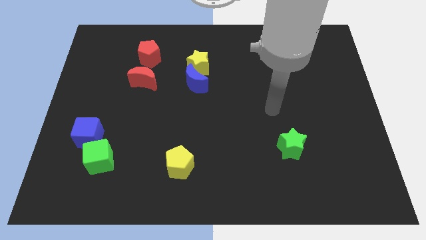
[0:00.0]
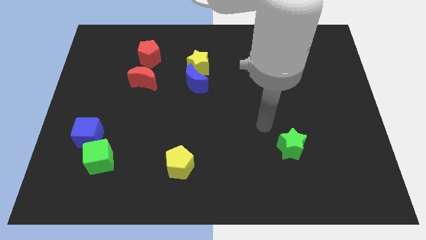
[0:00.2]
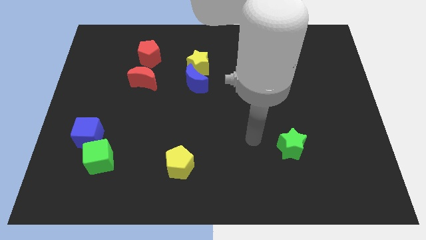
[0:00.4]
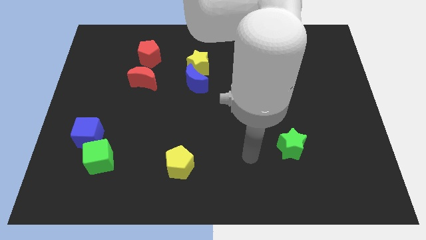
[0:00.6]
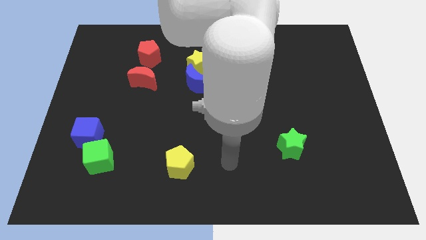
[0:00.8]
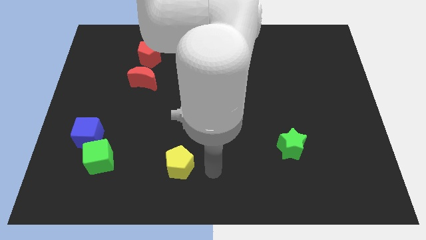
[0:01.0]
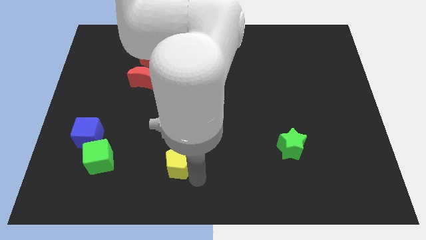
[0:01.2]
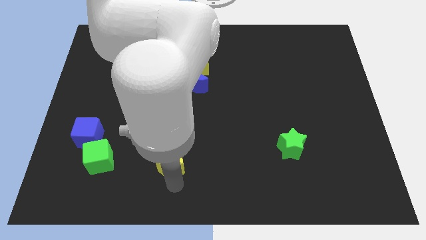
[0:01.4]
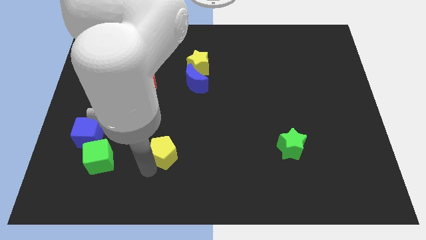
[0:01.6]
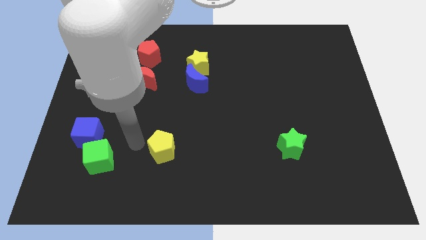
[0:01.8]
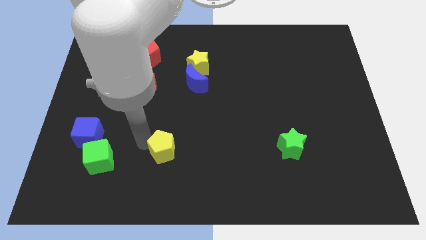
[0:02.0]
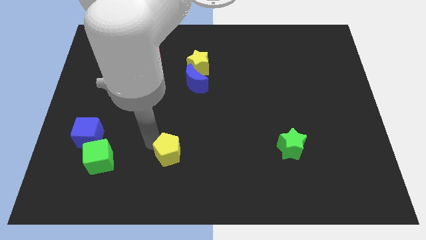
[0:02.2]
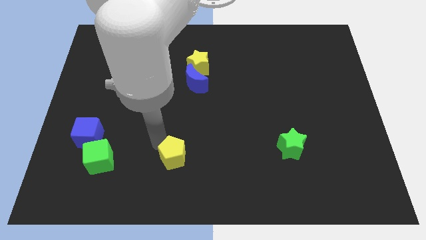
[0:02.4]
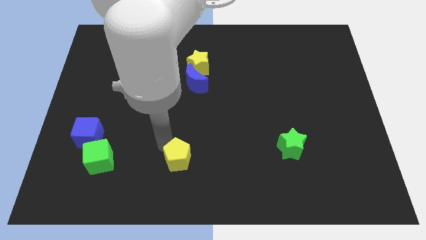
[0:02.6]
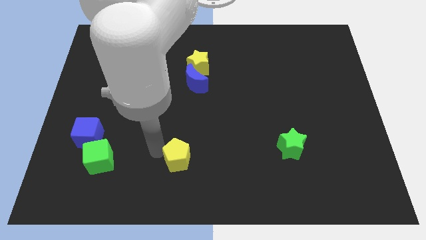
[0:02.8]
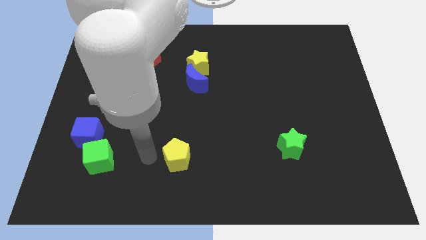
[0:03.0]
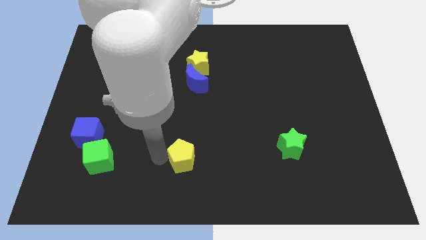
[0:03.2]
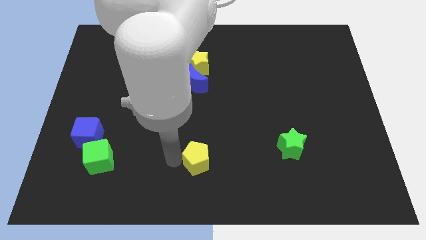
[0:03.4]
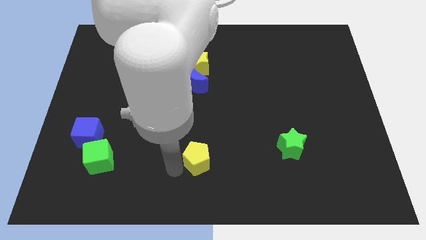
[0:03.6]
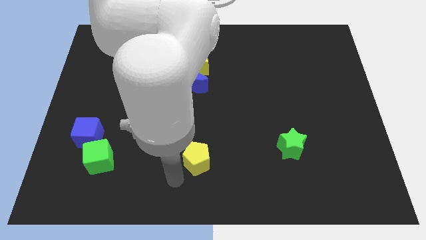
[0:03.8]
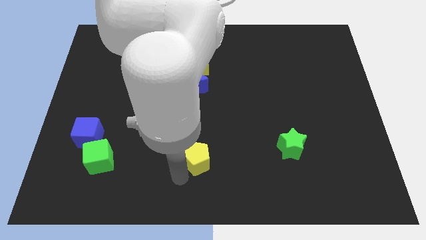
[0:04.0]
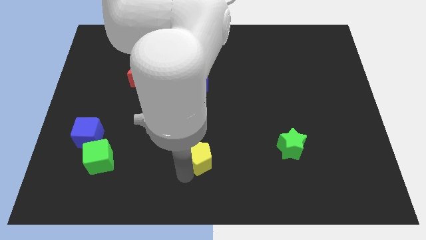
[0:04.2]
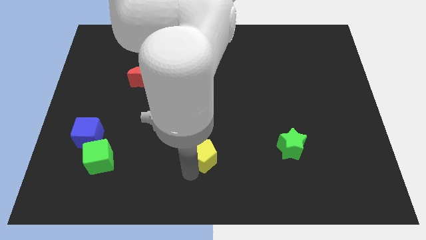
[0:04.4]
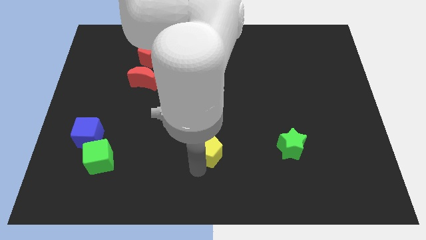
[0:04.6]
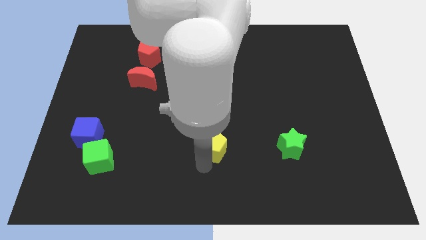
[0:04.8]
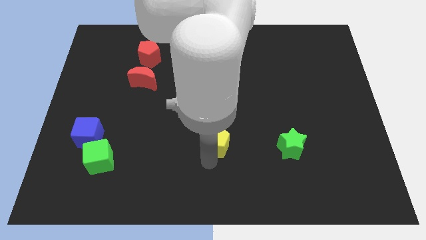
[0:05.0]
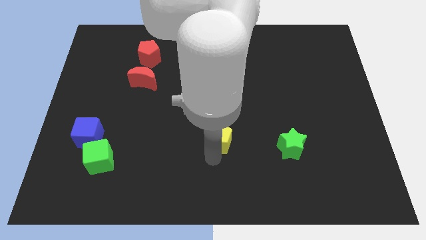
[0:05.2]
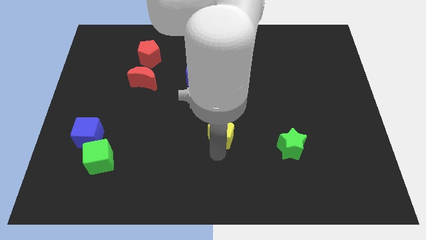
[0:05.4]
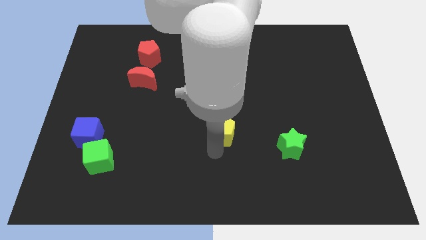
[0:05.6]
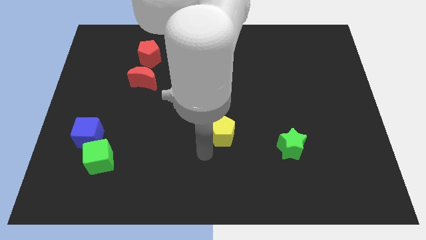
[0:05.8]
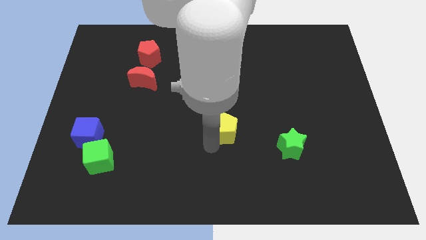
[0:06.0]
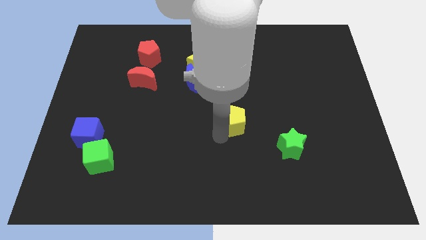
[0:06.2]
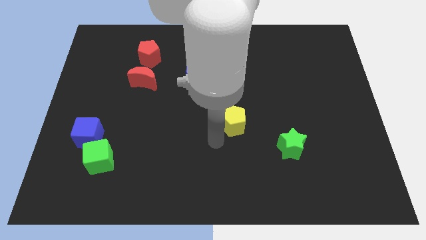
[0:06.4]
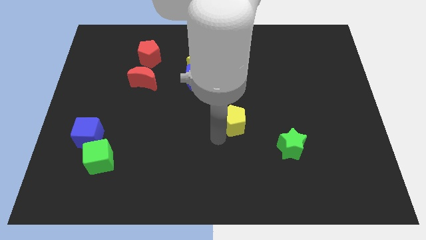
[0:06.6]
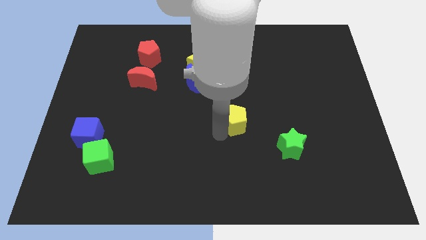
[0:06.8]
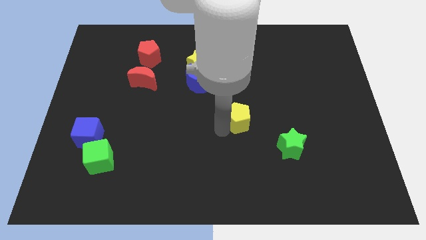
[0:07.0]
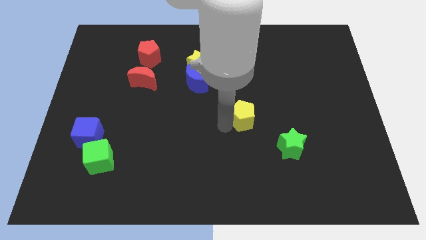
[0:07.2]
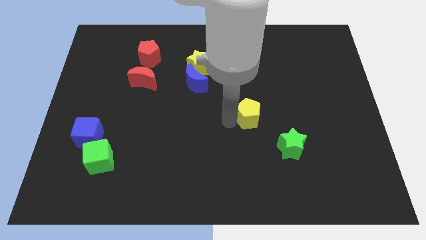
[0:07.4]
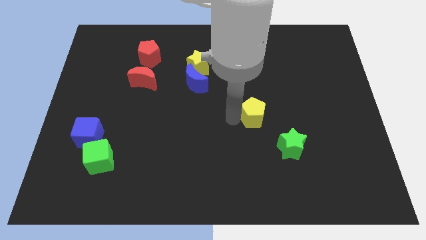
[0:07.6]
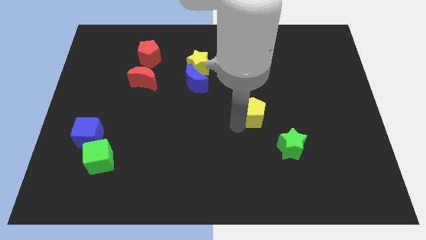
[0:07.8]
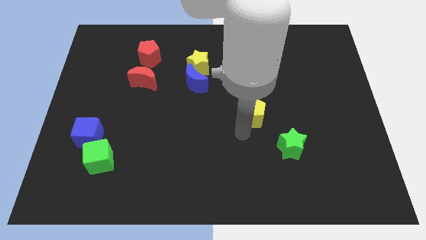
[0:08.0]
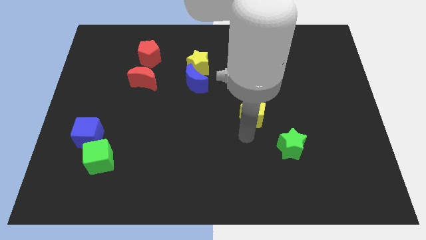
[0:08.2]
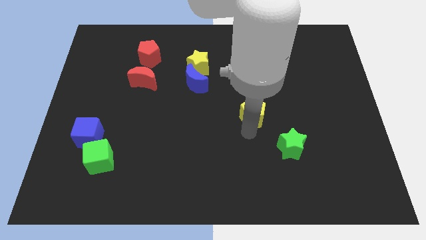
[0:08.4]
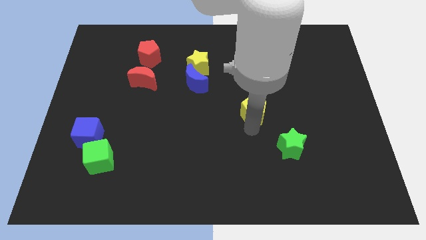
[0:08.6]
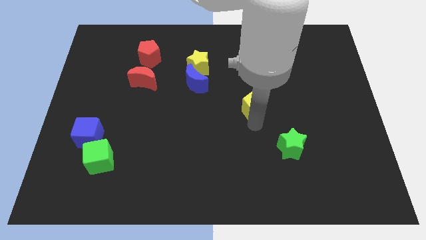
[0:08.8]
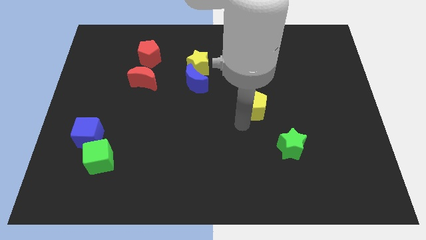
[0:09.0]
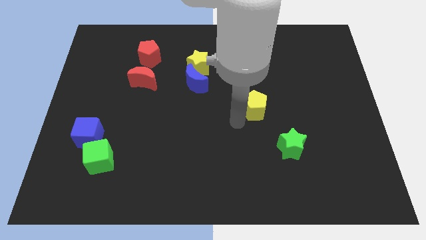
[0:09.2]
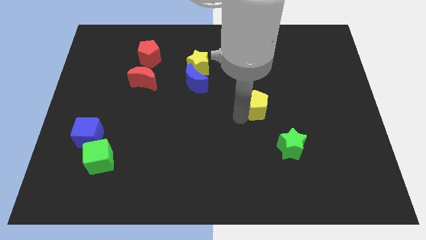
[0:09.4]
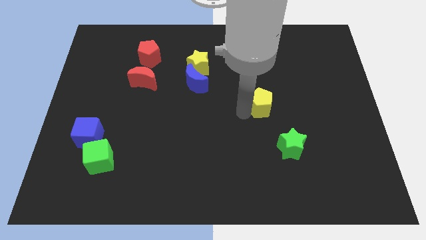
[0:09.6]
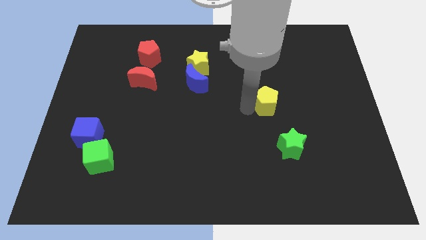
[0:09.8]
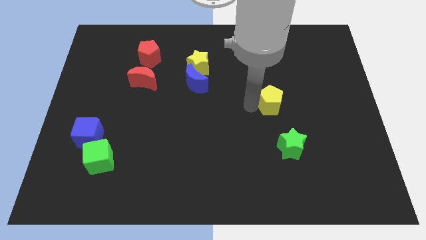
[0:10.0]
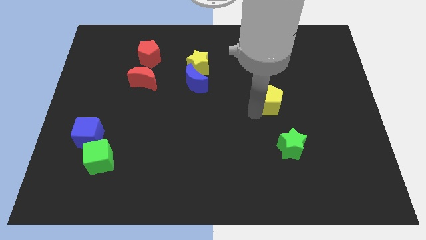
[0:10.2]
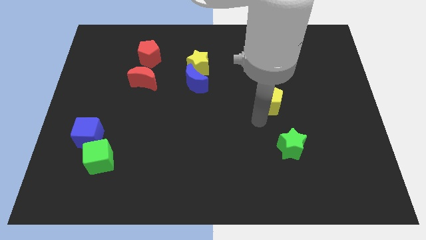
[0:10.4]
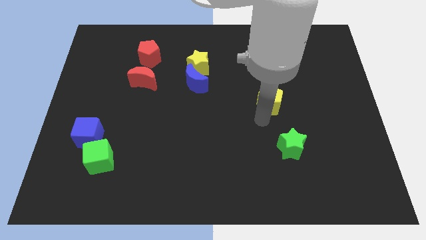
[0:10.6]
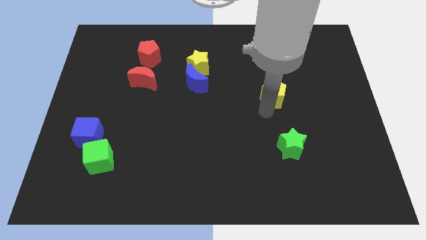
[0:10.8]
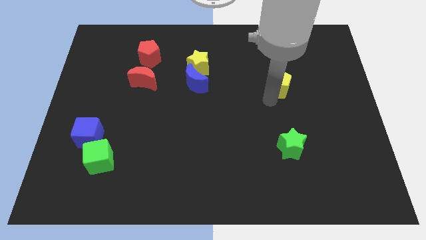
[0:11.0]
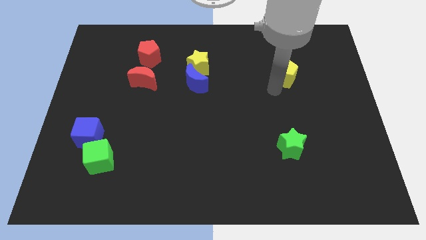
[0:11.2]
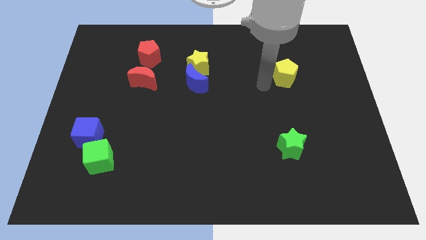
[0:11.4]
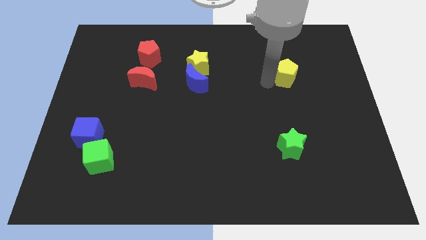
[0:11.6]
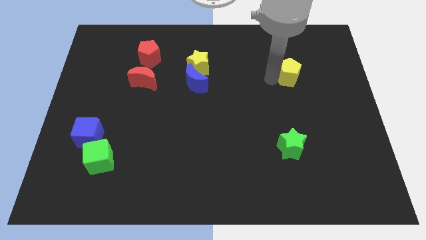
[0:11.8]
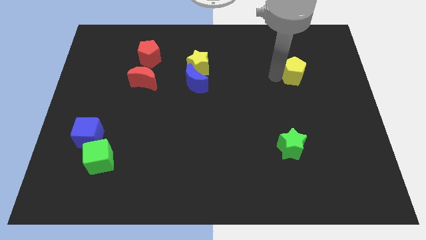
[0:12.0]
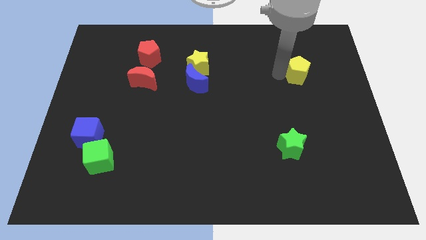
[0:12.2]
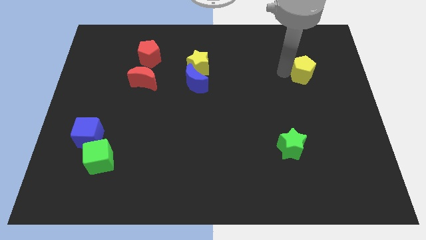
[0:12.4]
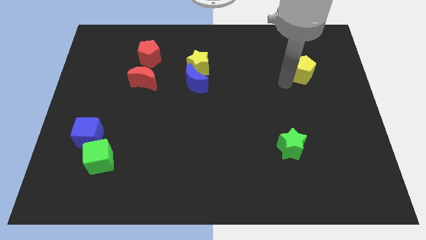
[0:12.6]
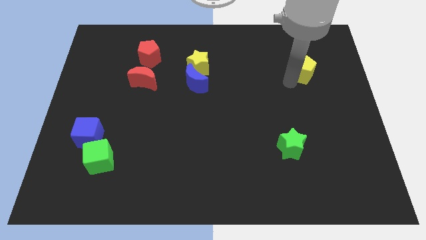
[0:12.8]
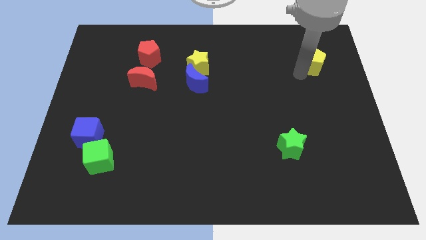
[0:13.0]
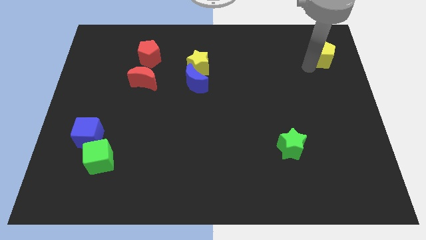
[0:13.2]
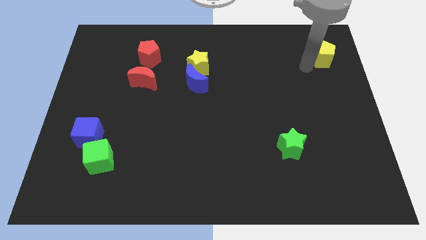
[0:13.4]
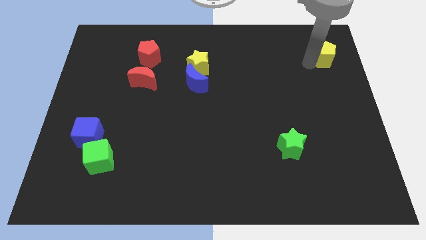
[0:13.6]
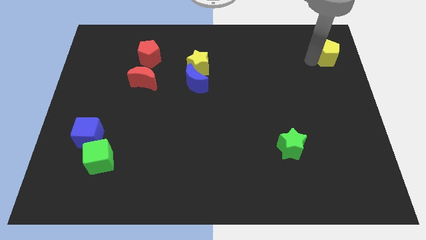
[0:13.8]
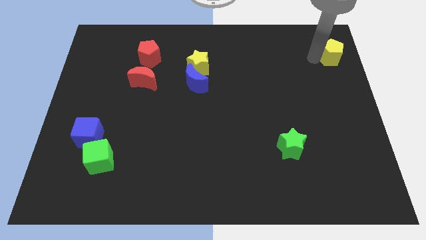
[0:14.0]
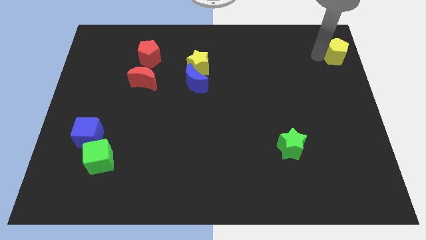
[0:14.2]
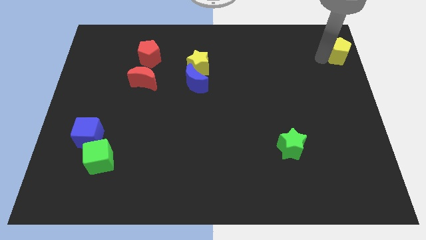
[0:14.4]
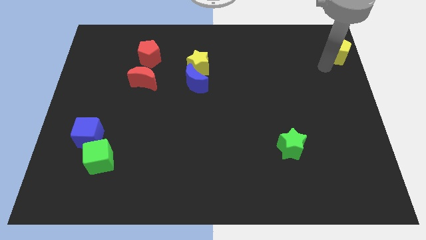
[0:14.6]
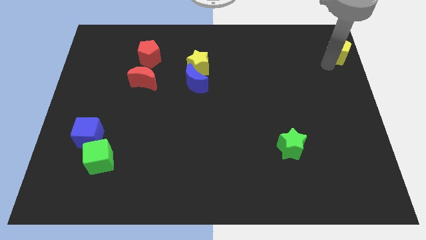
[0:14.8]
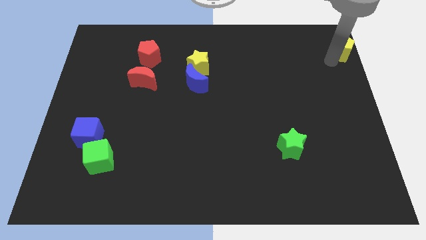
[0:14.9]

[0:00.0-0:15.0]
slide the yellow pentagon to the top right
